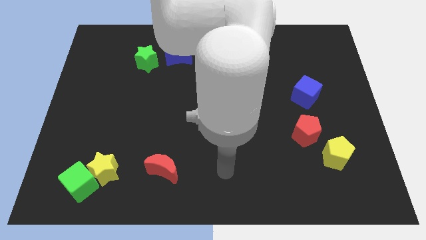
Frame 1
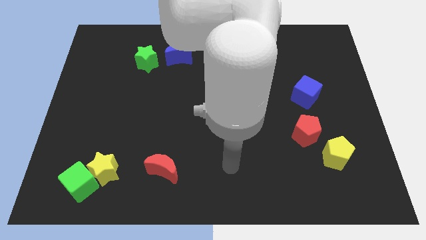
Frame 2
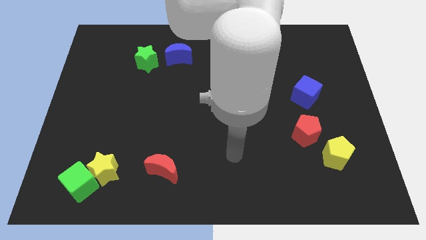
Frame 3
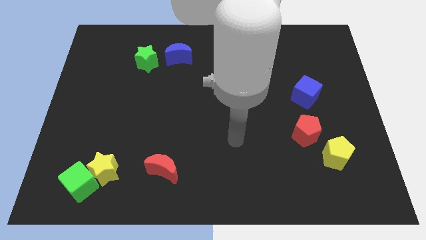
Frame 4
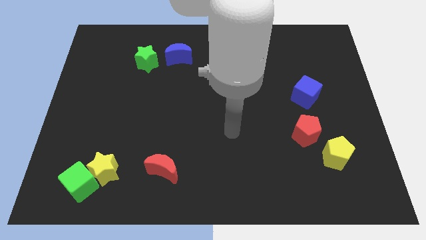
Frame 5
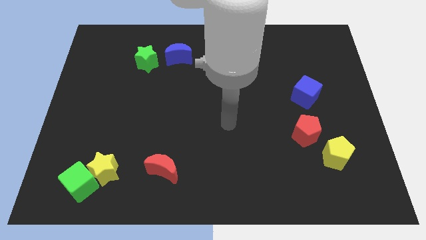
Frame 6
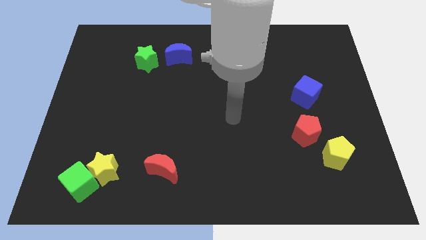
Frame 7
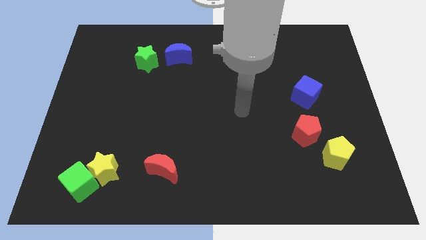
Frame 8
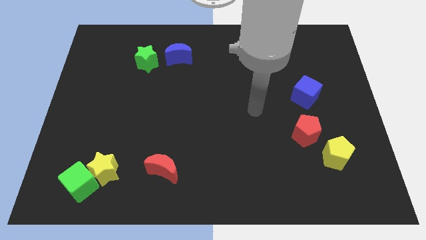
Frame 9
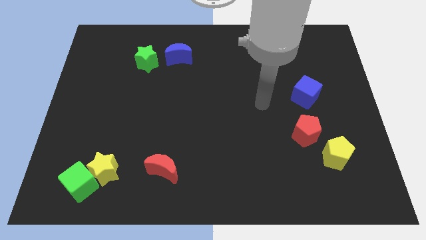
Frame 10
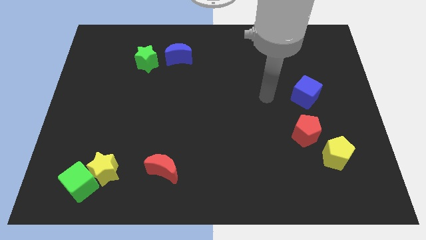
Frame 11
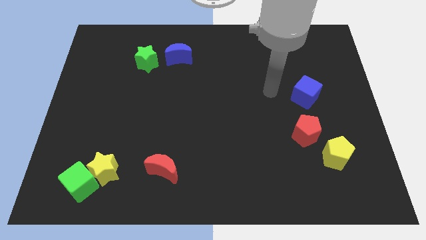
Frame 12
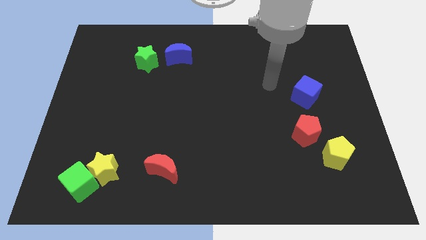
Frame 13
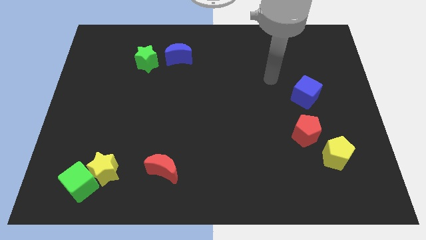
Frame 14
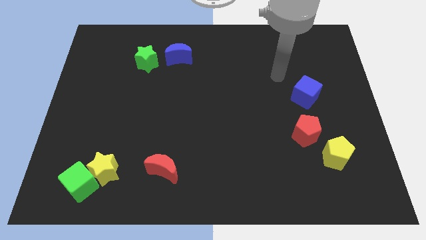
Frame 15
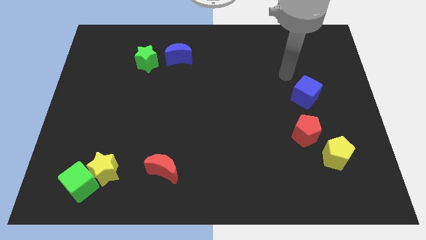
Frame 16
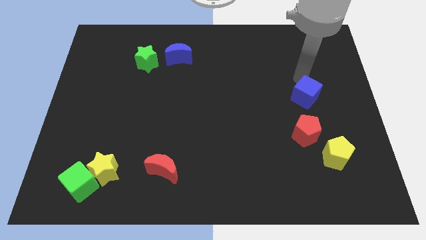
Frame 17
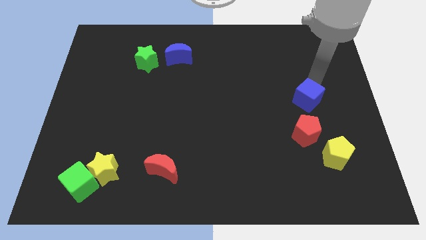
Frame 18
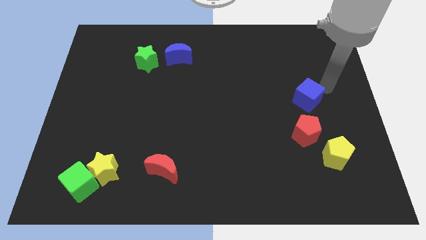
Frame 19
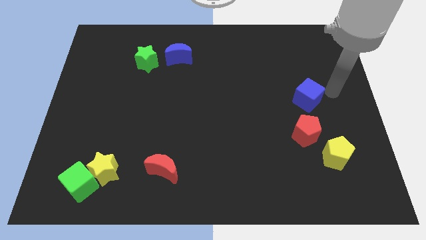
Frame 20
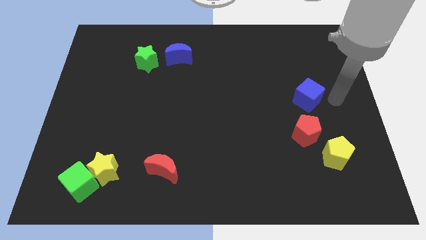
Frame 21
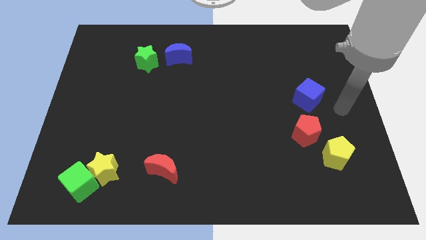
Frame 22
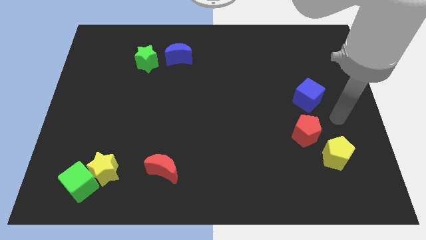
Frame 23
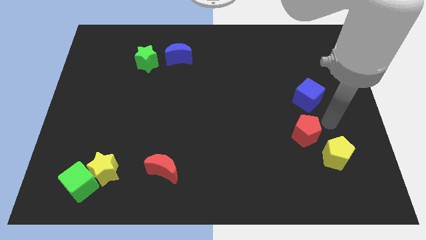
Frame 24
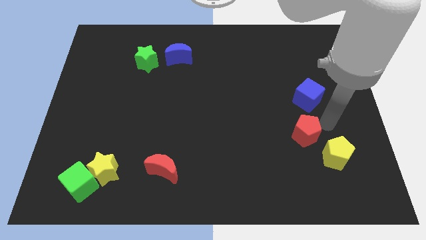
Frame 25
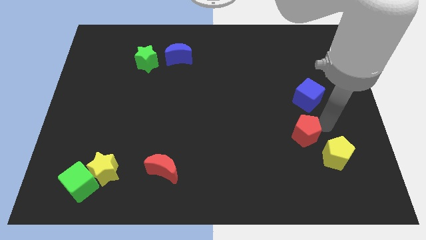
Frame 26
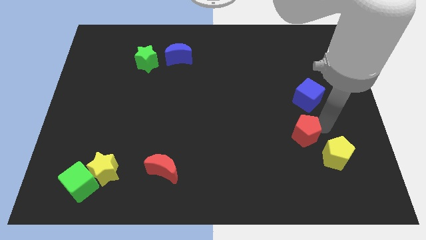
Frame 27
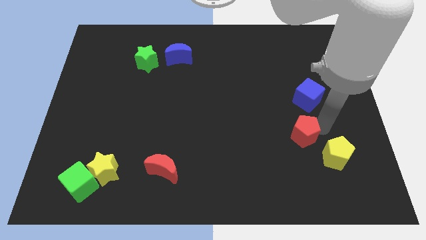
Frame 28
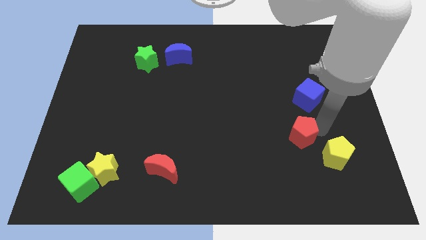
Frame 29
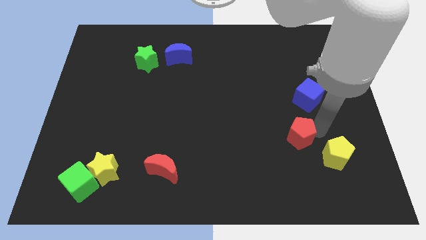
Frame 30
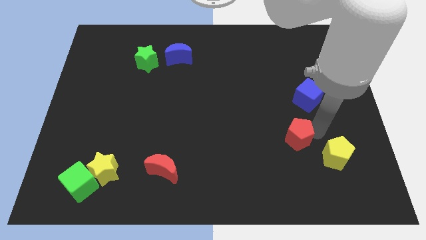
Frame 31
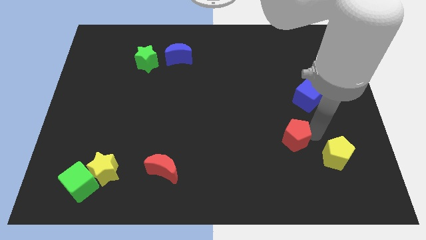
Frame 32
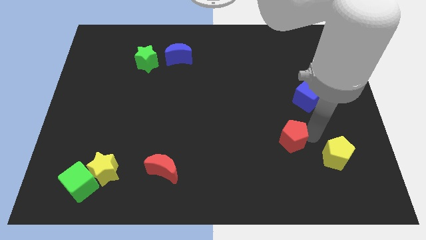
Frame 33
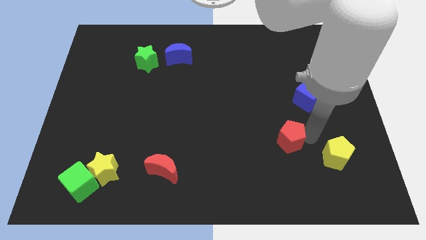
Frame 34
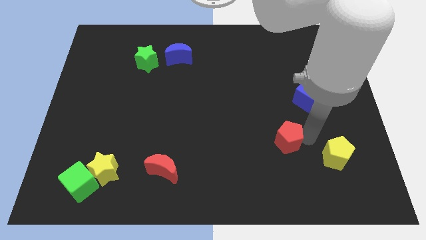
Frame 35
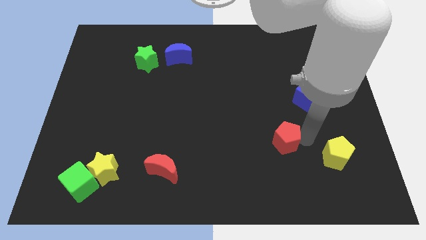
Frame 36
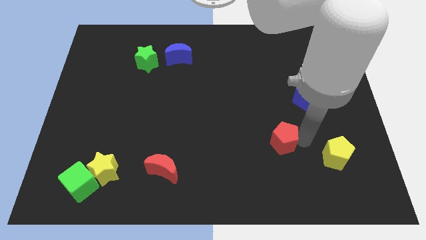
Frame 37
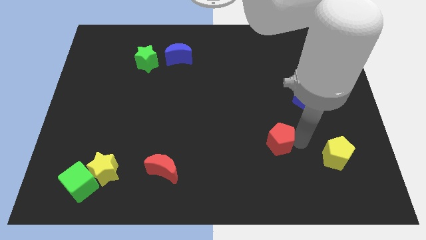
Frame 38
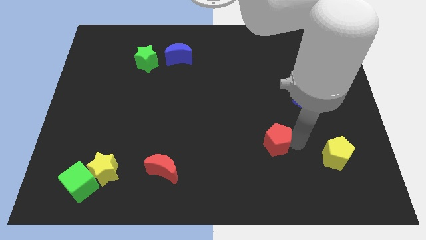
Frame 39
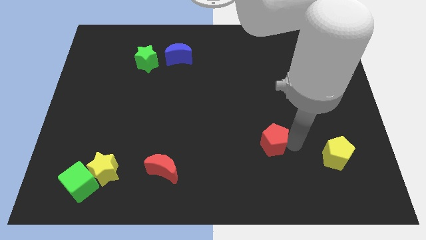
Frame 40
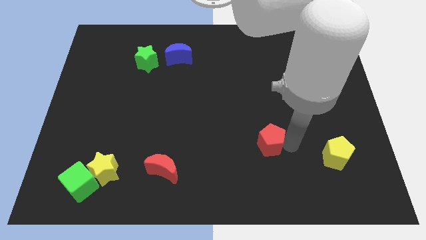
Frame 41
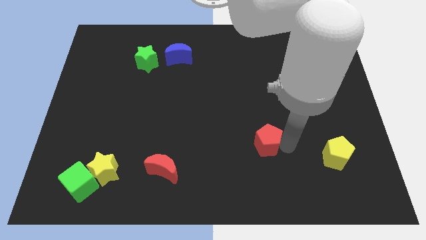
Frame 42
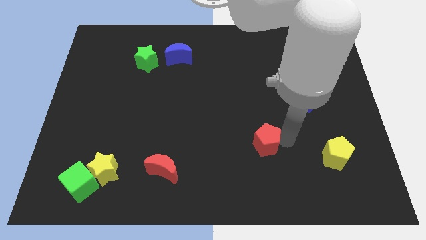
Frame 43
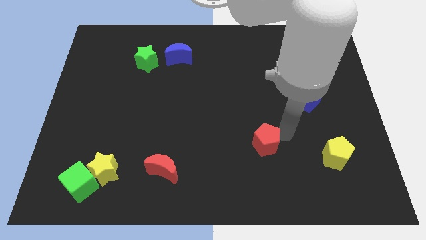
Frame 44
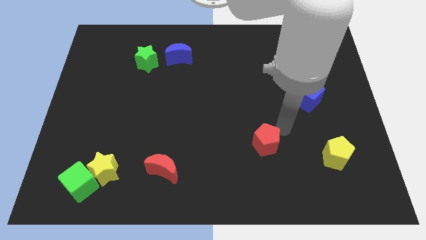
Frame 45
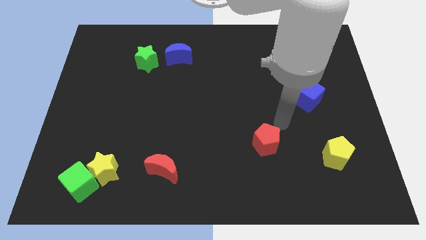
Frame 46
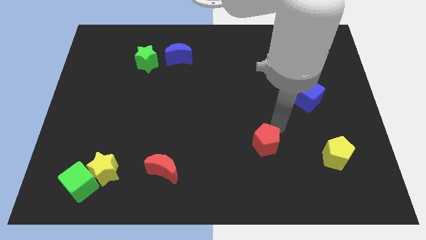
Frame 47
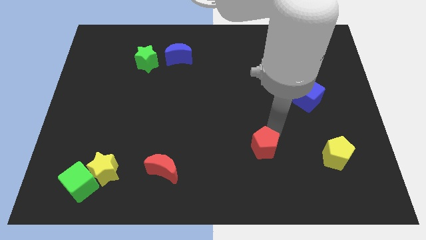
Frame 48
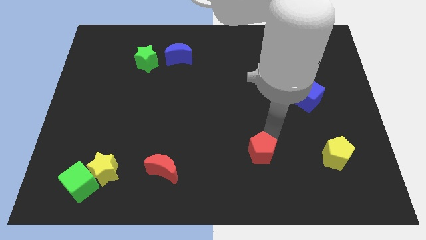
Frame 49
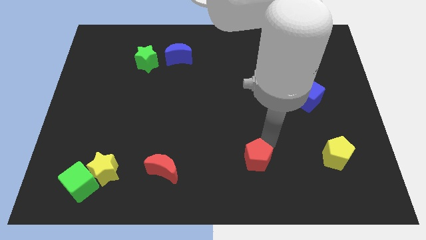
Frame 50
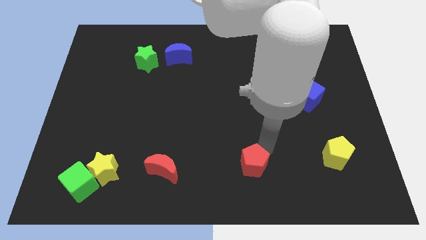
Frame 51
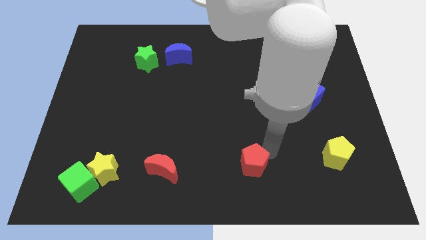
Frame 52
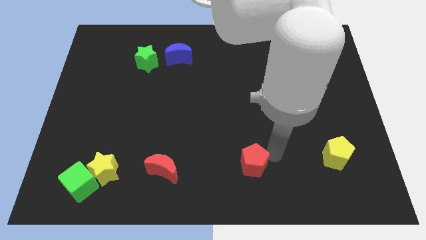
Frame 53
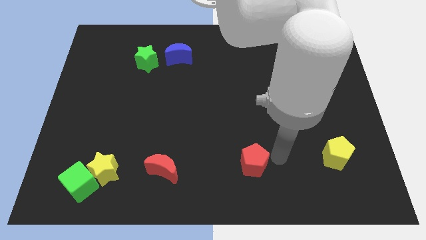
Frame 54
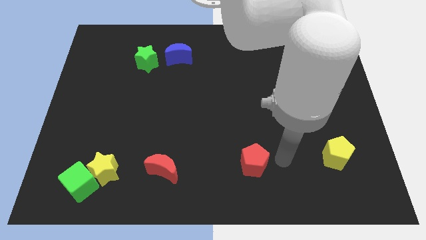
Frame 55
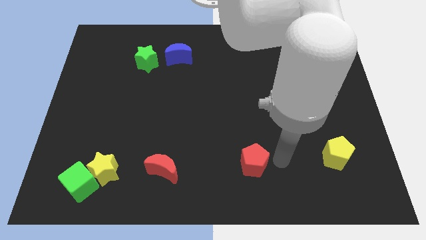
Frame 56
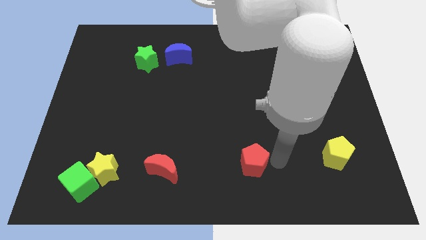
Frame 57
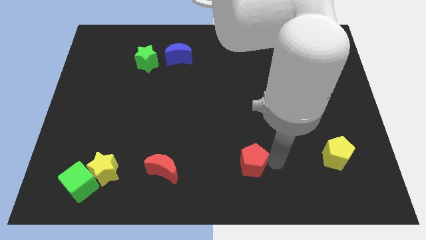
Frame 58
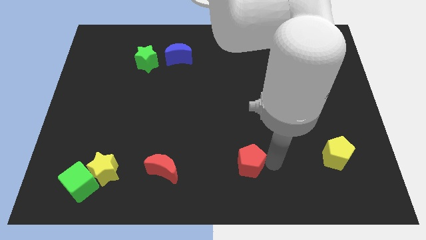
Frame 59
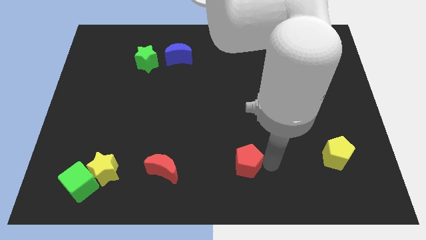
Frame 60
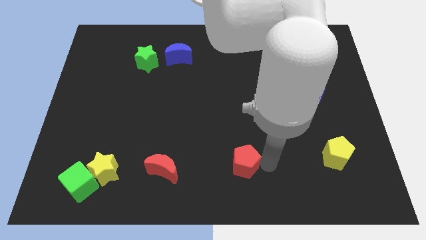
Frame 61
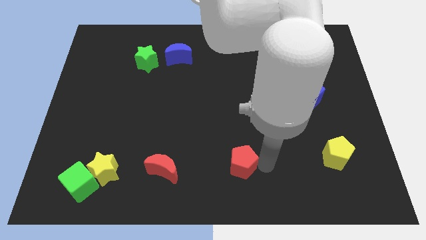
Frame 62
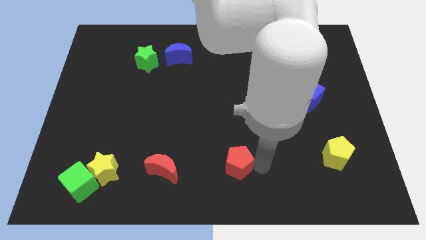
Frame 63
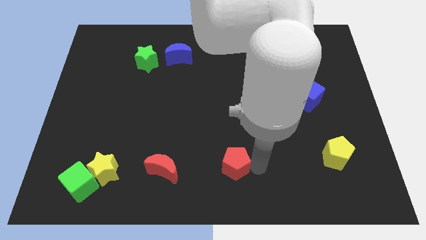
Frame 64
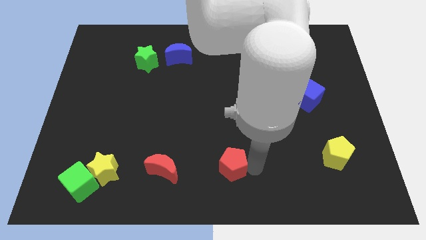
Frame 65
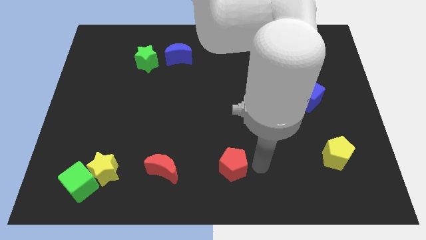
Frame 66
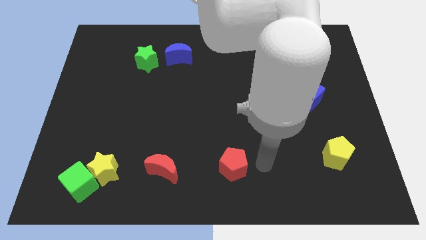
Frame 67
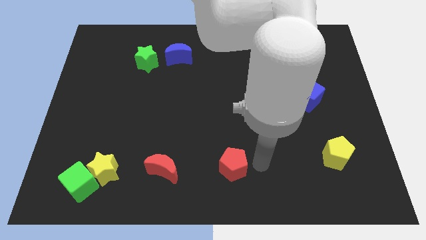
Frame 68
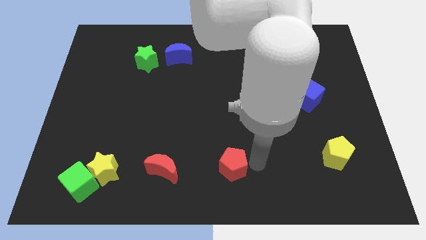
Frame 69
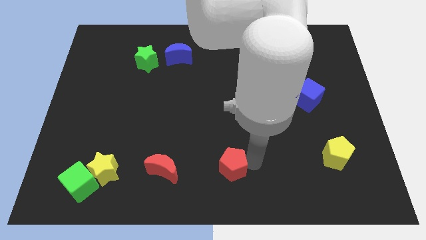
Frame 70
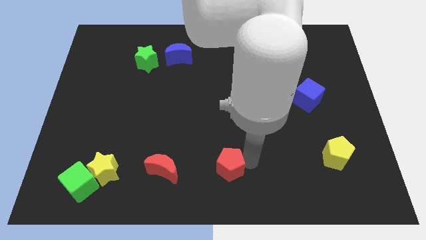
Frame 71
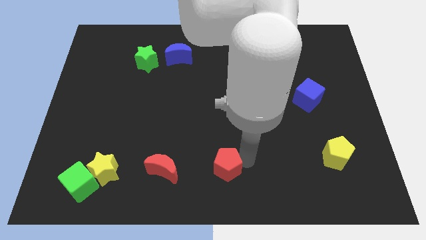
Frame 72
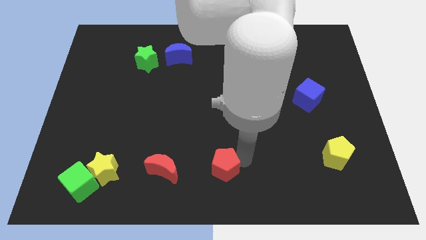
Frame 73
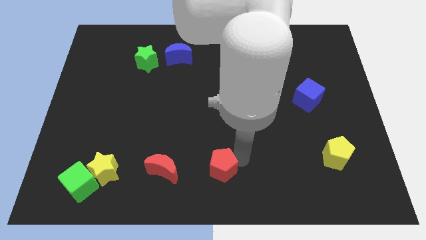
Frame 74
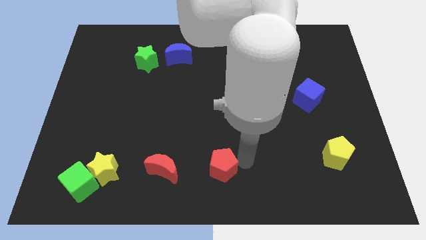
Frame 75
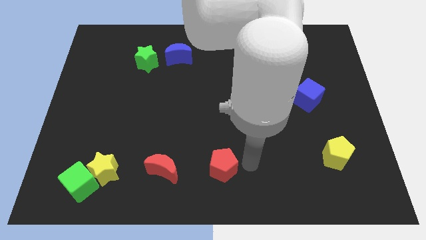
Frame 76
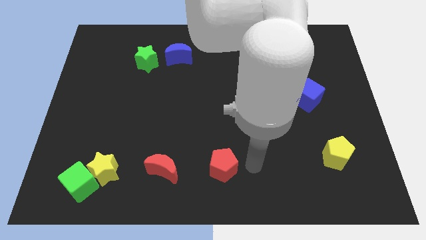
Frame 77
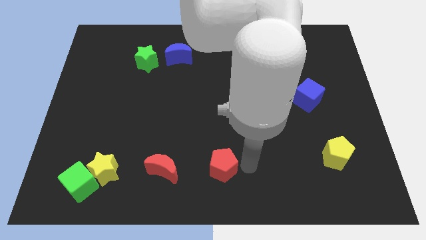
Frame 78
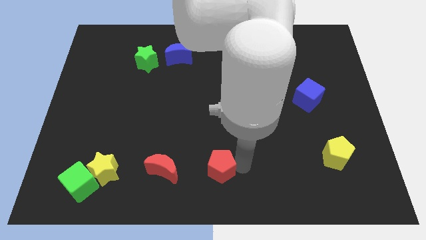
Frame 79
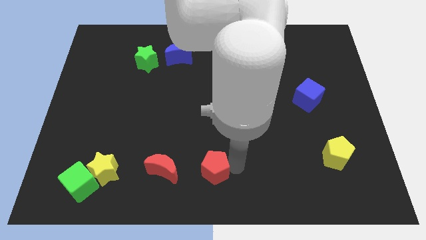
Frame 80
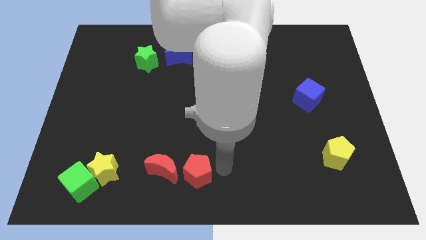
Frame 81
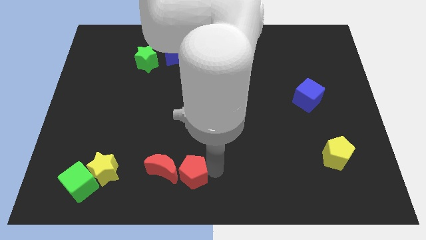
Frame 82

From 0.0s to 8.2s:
push the red pentagon towards the red moon
